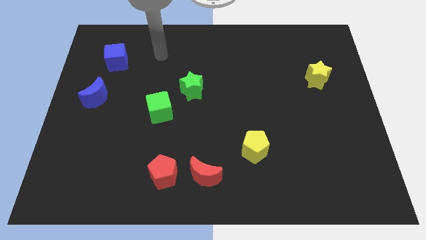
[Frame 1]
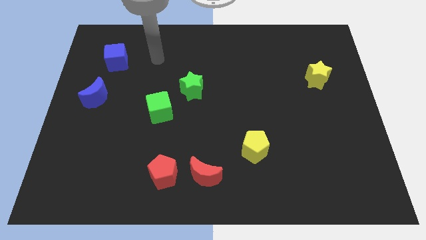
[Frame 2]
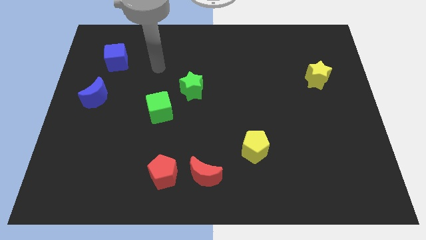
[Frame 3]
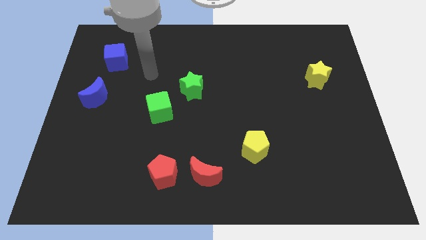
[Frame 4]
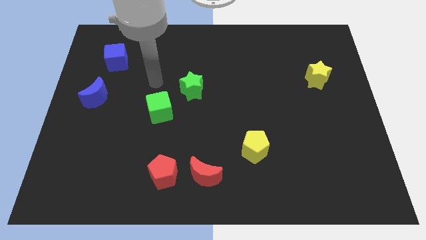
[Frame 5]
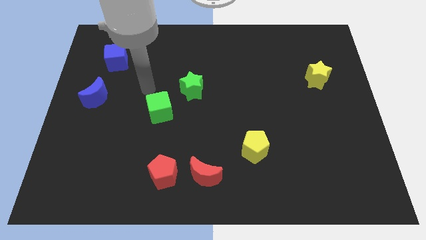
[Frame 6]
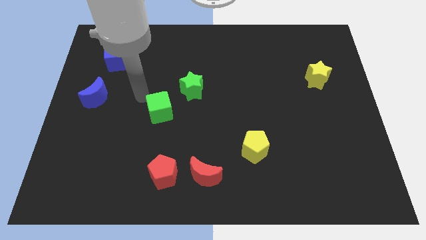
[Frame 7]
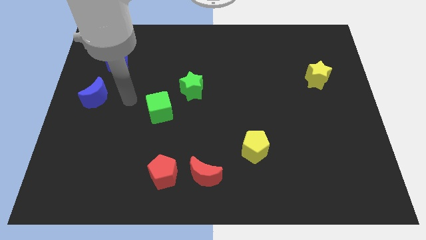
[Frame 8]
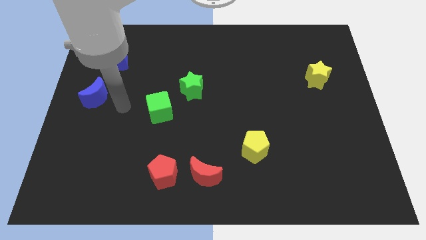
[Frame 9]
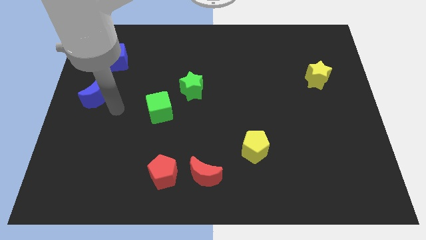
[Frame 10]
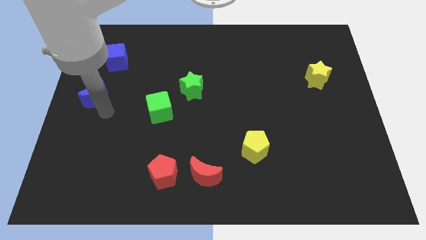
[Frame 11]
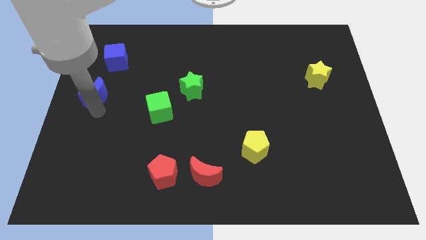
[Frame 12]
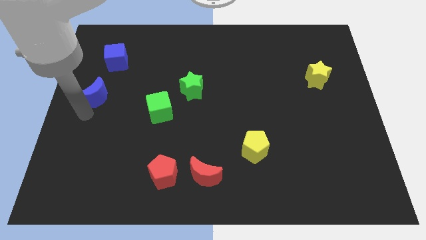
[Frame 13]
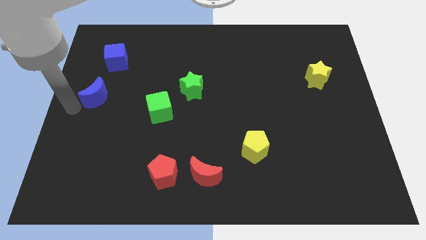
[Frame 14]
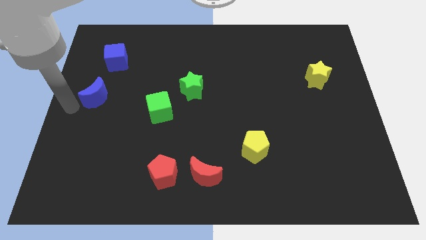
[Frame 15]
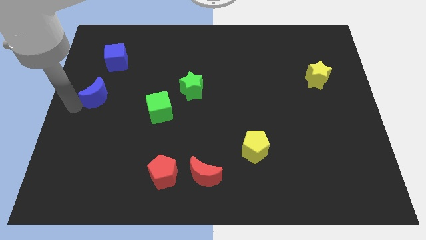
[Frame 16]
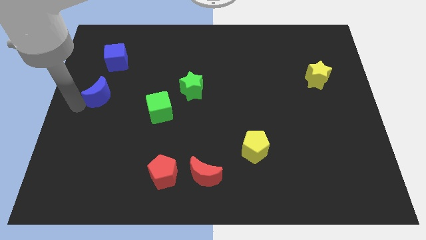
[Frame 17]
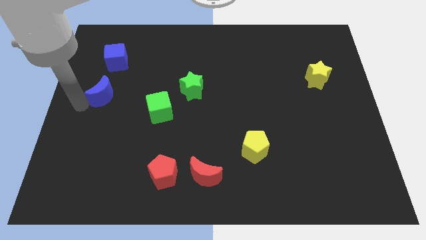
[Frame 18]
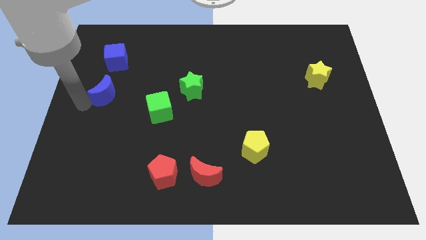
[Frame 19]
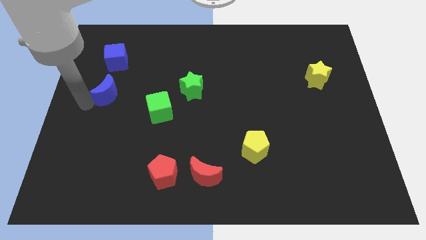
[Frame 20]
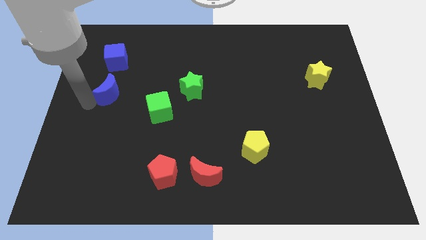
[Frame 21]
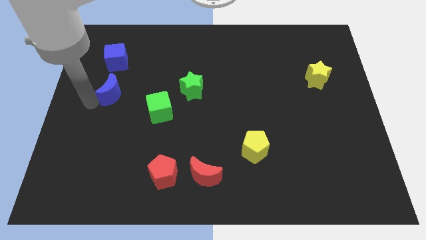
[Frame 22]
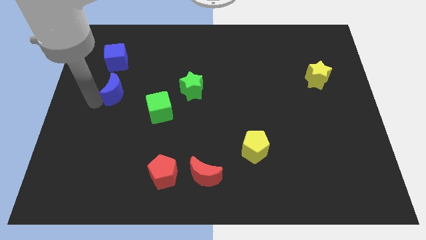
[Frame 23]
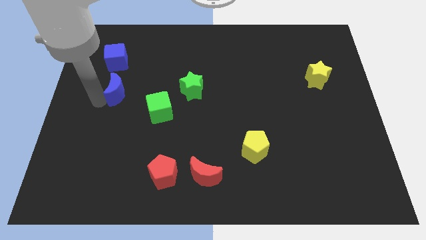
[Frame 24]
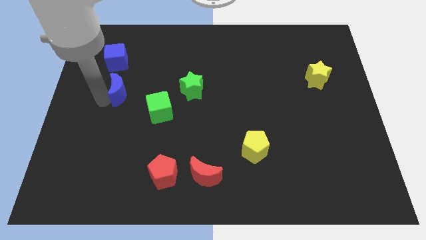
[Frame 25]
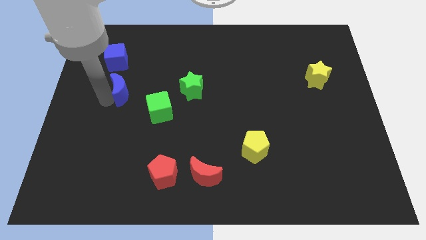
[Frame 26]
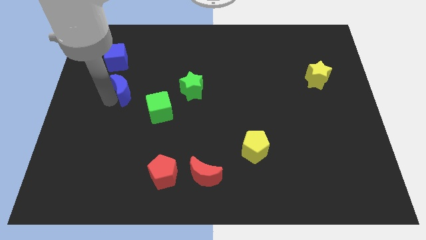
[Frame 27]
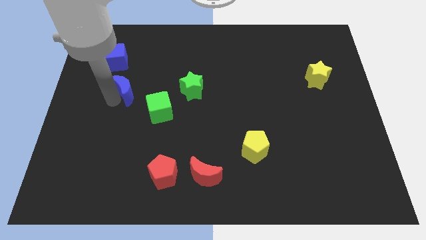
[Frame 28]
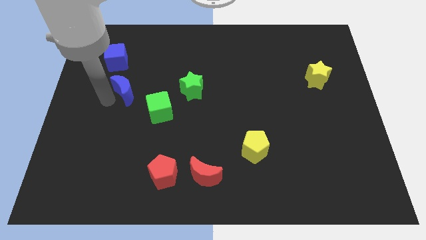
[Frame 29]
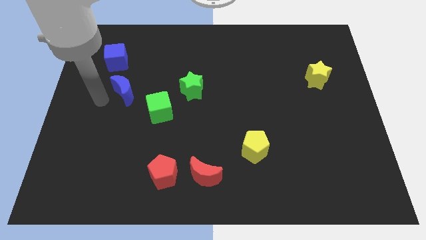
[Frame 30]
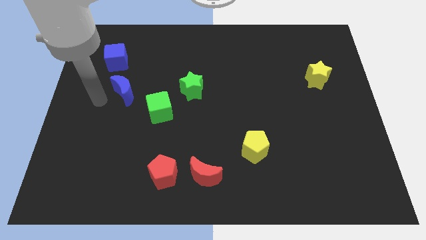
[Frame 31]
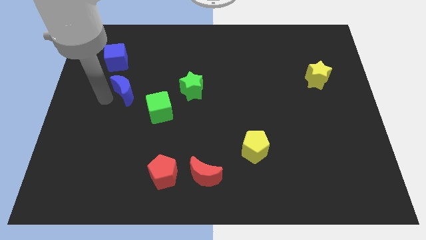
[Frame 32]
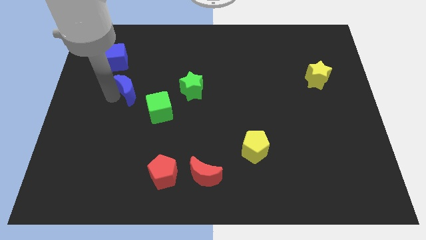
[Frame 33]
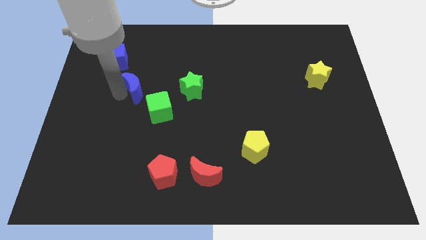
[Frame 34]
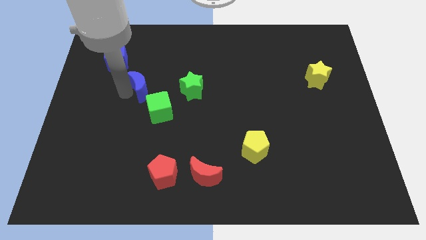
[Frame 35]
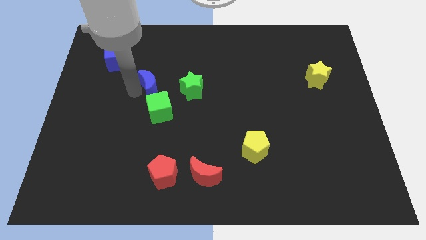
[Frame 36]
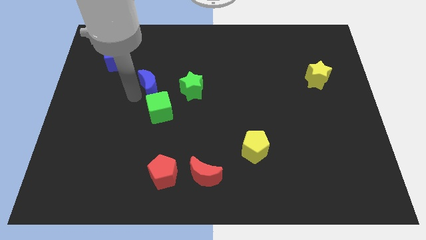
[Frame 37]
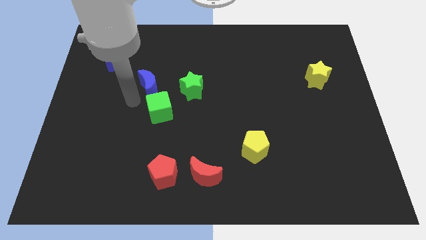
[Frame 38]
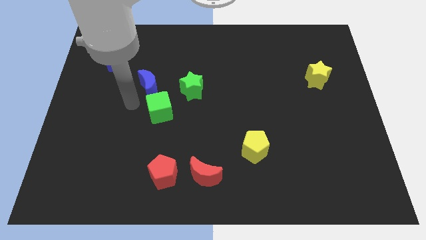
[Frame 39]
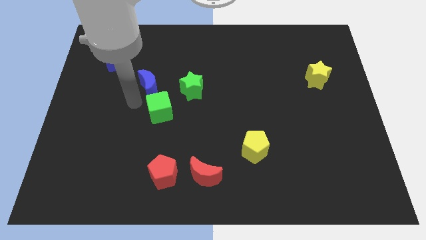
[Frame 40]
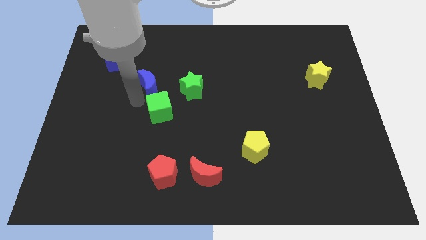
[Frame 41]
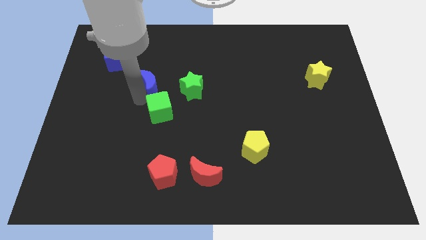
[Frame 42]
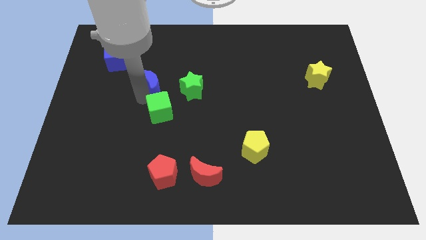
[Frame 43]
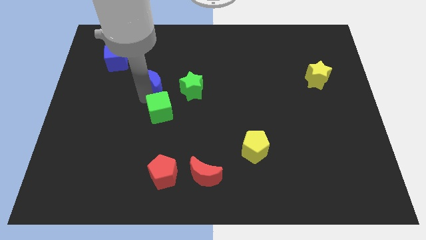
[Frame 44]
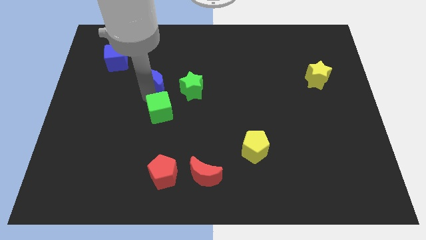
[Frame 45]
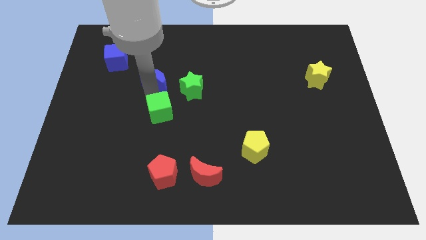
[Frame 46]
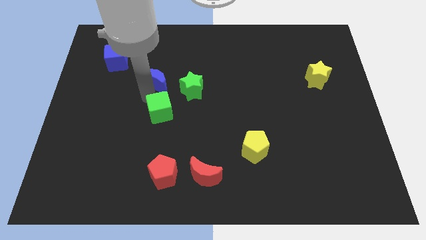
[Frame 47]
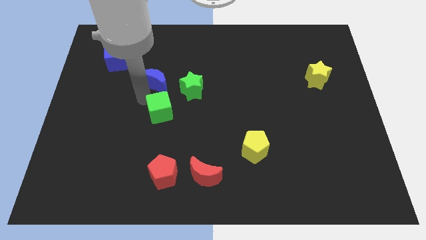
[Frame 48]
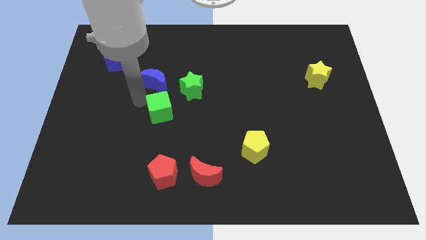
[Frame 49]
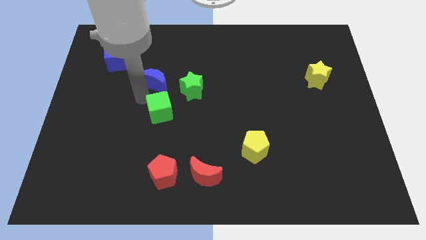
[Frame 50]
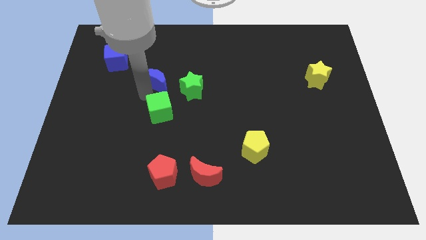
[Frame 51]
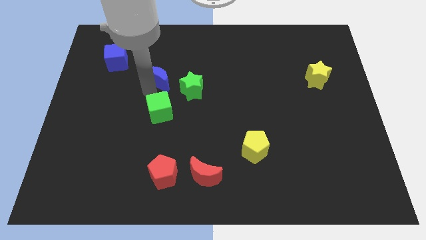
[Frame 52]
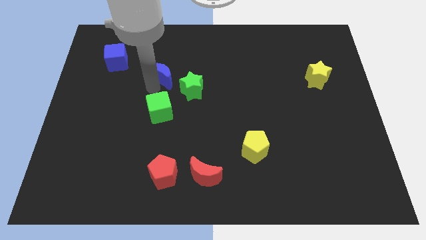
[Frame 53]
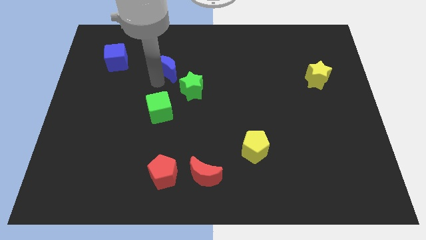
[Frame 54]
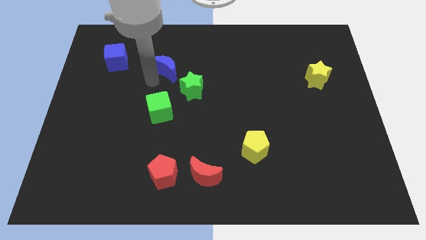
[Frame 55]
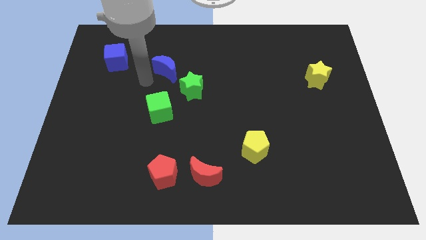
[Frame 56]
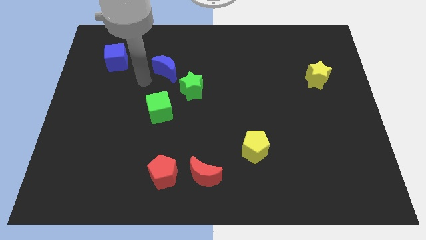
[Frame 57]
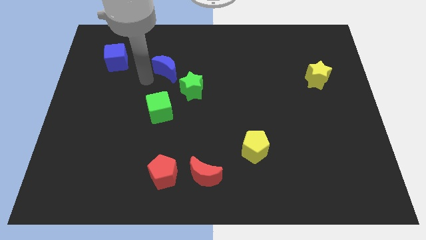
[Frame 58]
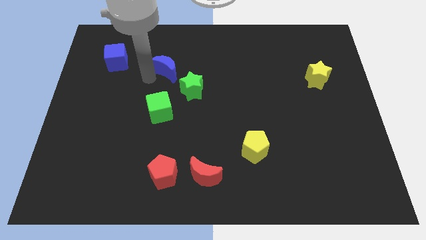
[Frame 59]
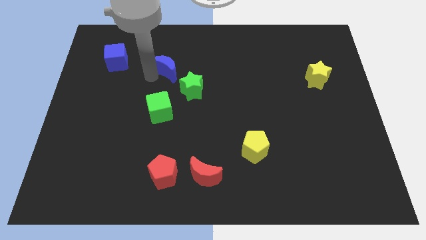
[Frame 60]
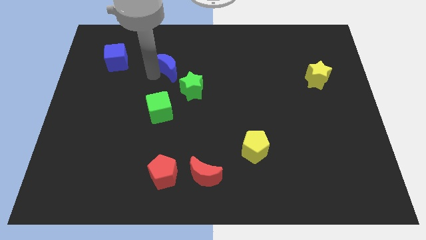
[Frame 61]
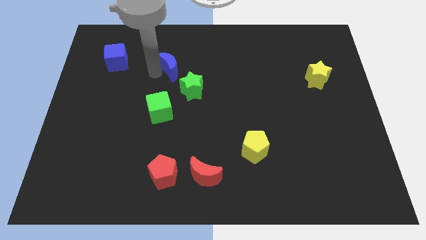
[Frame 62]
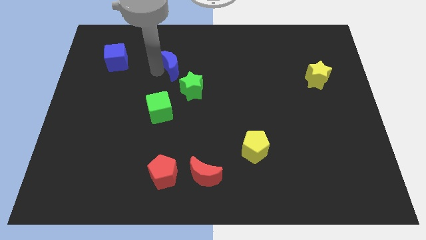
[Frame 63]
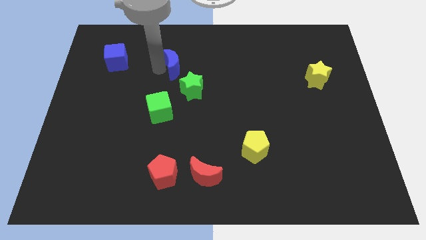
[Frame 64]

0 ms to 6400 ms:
move the blue moon above the green star
